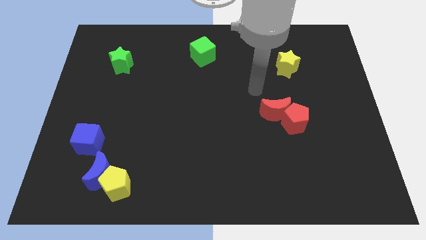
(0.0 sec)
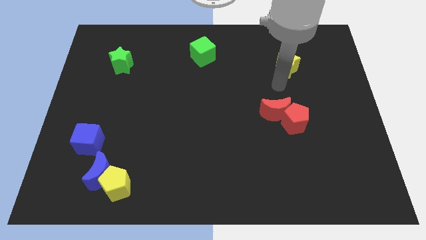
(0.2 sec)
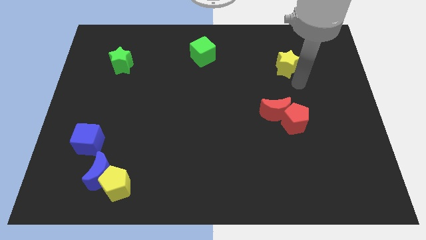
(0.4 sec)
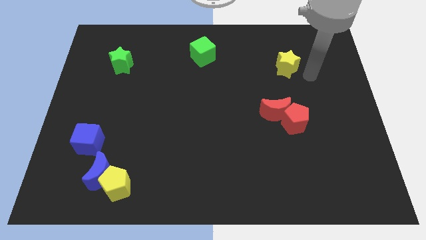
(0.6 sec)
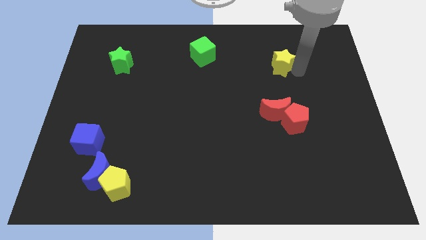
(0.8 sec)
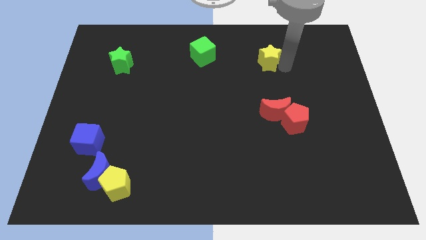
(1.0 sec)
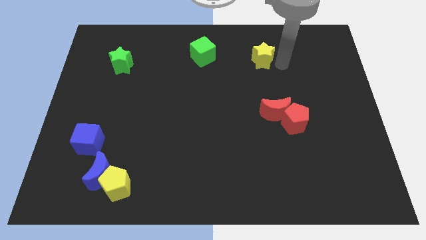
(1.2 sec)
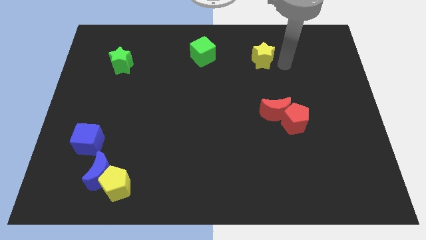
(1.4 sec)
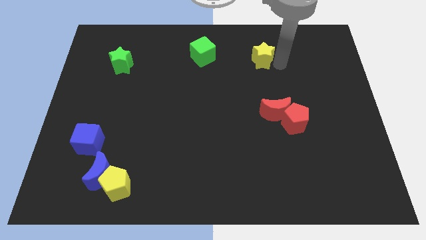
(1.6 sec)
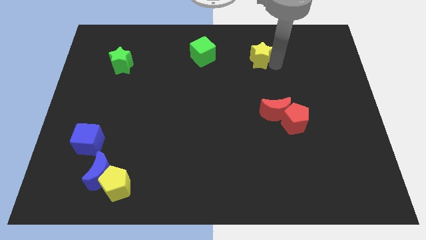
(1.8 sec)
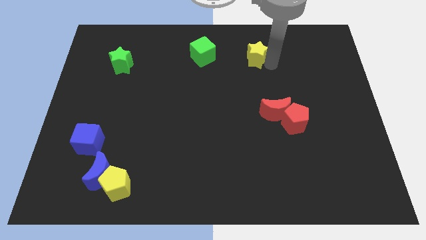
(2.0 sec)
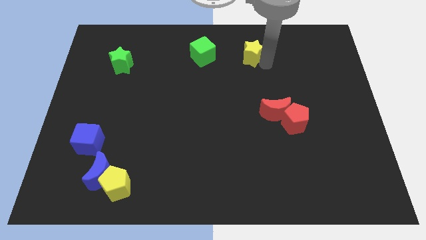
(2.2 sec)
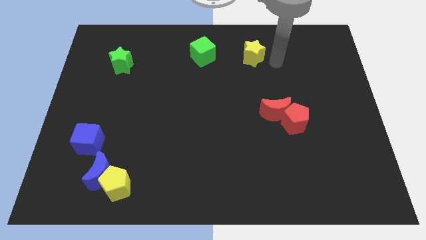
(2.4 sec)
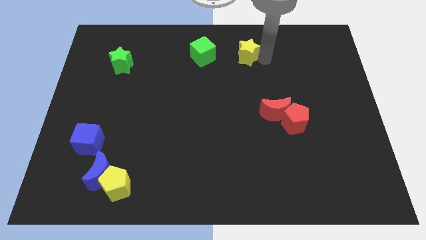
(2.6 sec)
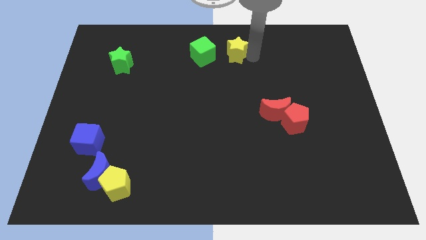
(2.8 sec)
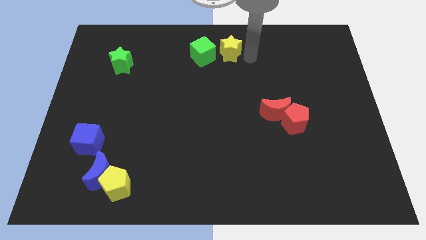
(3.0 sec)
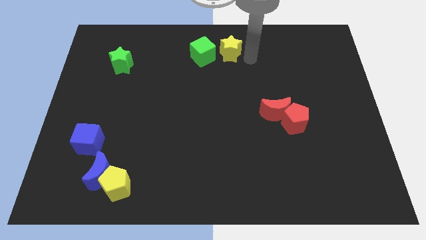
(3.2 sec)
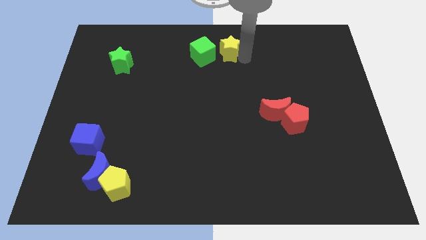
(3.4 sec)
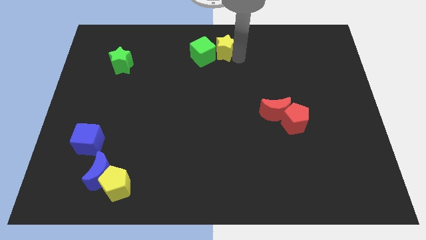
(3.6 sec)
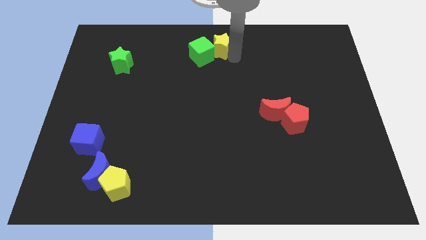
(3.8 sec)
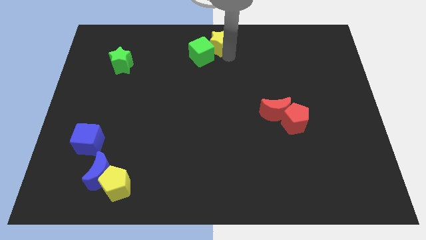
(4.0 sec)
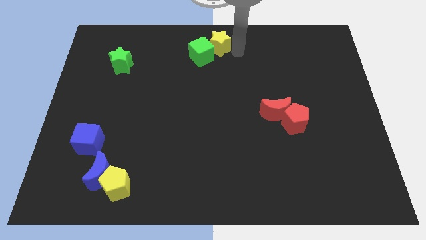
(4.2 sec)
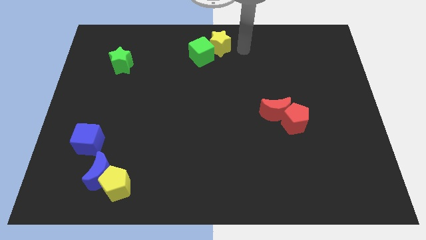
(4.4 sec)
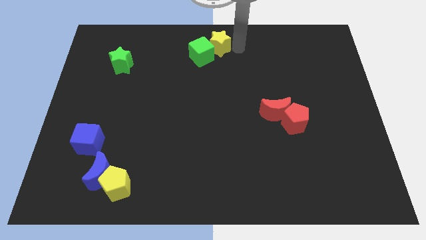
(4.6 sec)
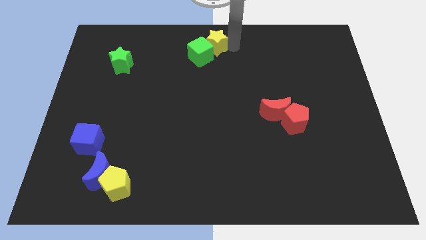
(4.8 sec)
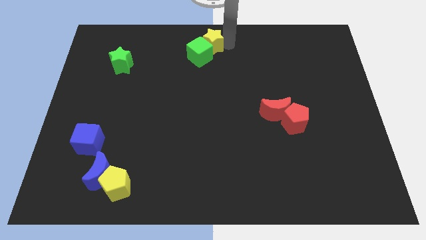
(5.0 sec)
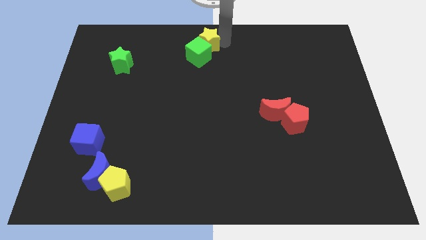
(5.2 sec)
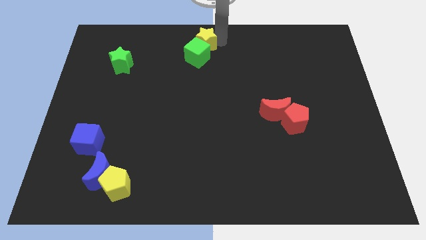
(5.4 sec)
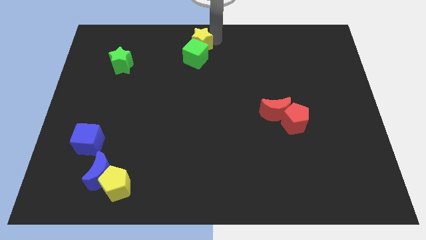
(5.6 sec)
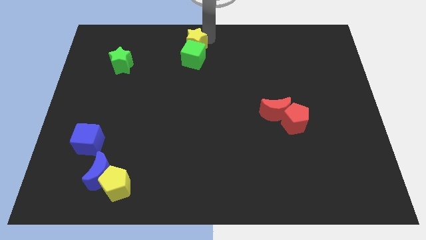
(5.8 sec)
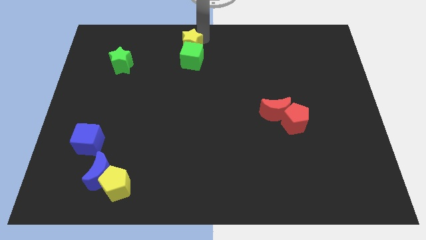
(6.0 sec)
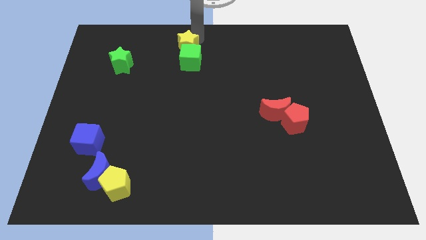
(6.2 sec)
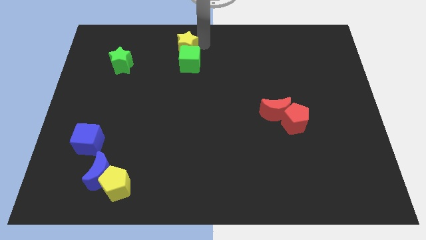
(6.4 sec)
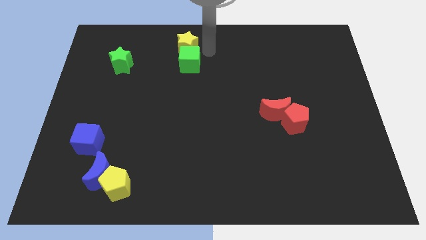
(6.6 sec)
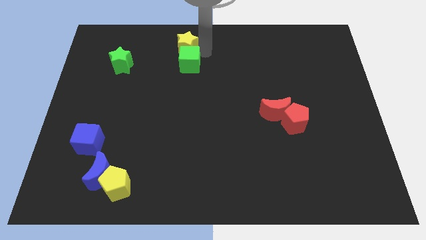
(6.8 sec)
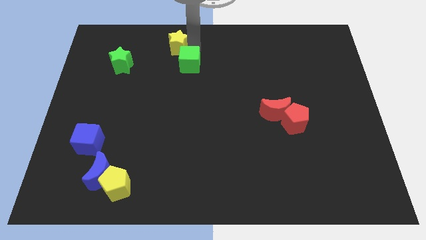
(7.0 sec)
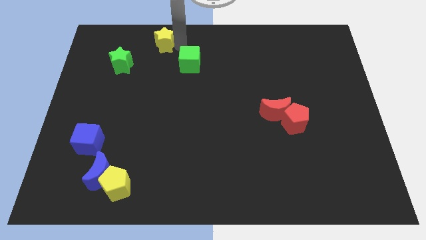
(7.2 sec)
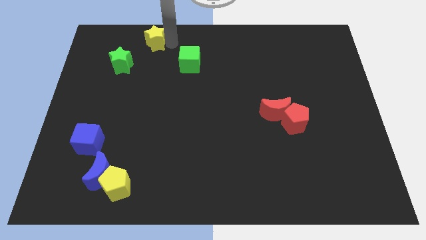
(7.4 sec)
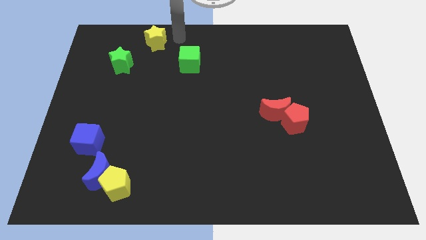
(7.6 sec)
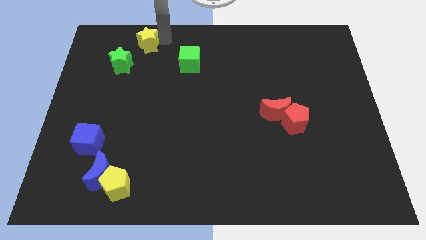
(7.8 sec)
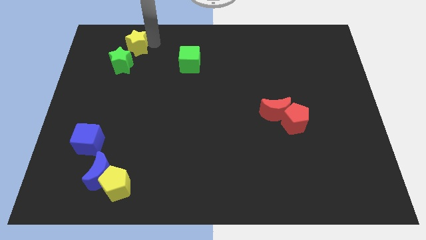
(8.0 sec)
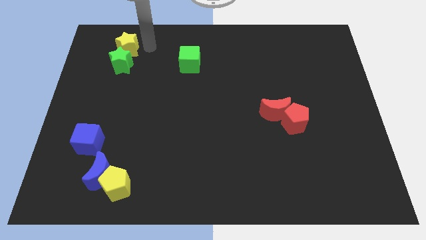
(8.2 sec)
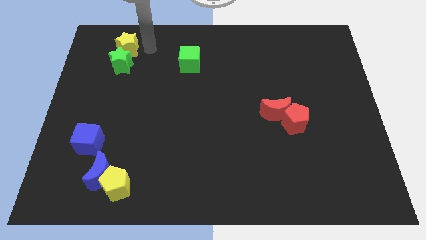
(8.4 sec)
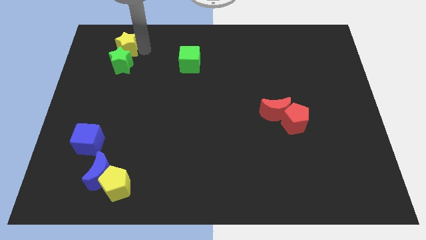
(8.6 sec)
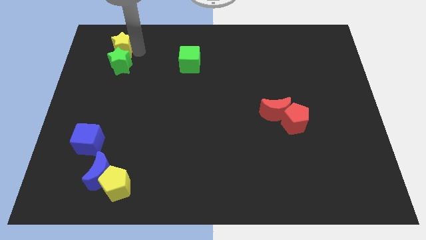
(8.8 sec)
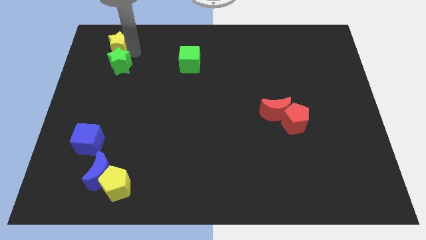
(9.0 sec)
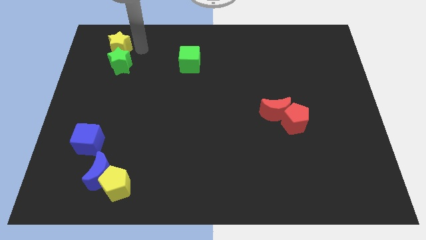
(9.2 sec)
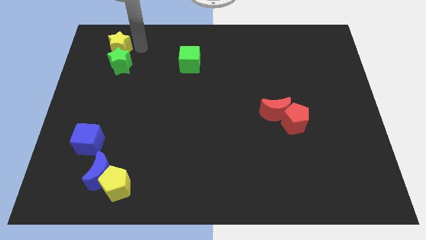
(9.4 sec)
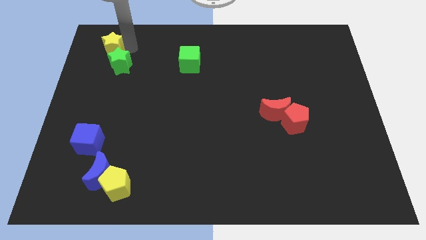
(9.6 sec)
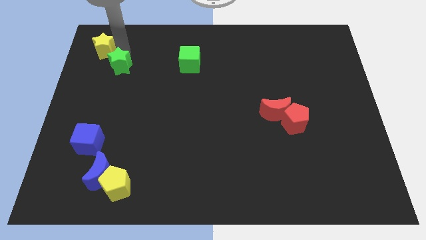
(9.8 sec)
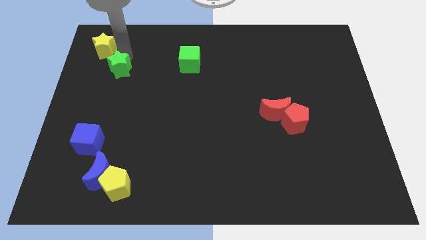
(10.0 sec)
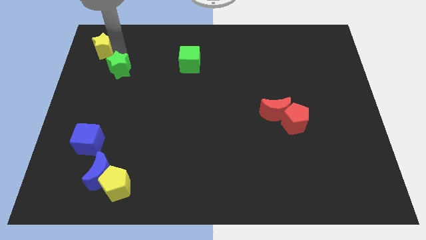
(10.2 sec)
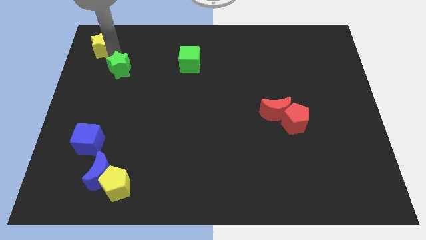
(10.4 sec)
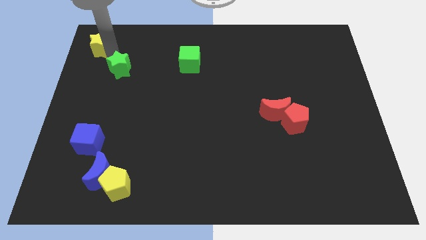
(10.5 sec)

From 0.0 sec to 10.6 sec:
put the yellow star to the upper left corner

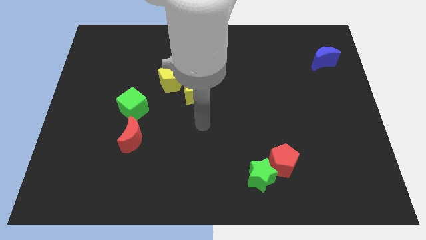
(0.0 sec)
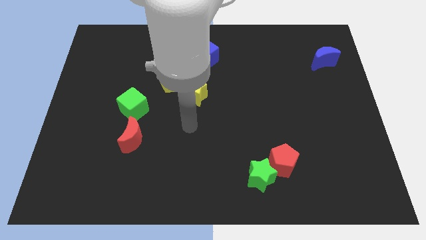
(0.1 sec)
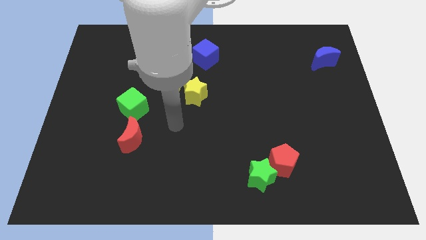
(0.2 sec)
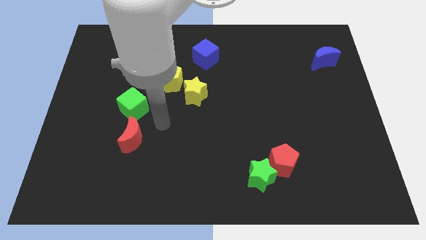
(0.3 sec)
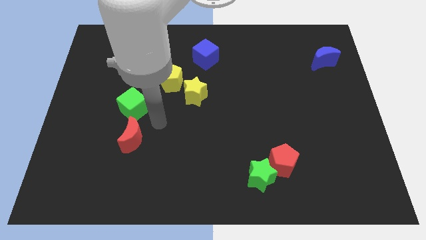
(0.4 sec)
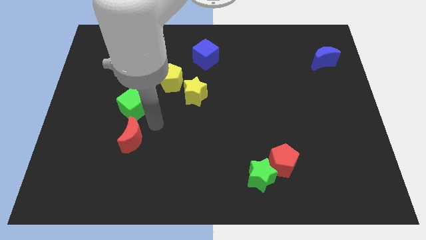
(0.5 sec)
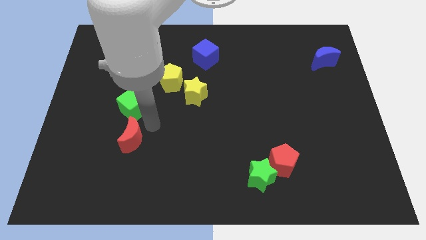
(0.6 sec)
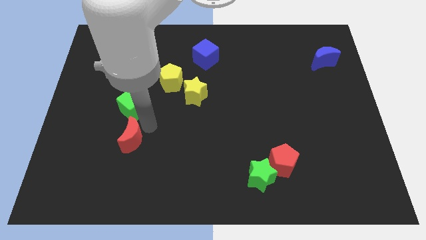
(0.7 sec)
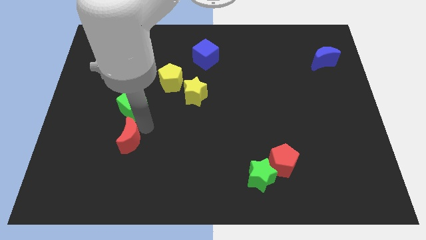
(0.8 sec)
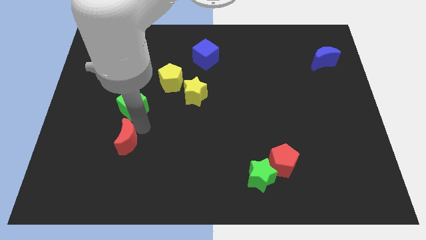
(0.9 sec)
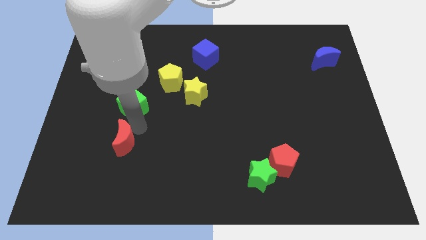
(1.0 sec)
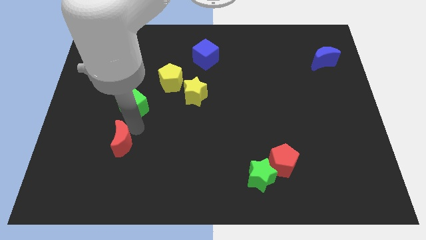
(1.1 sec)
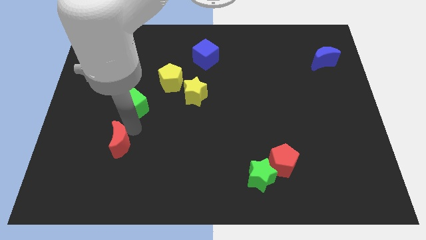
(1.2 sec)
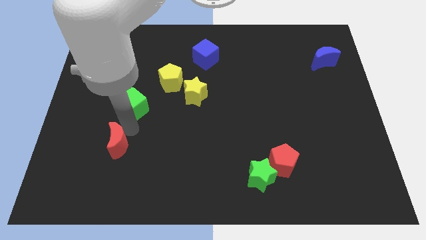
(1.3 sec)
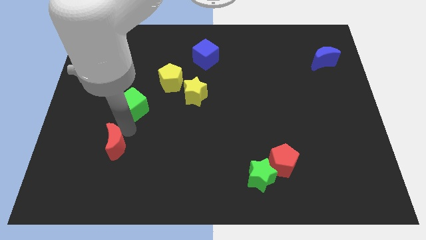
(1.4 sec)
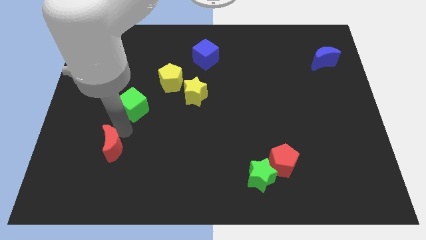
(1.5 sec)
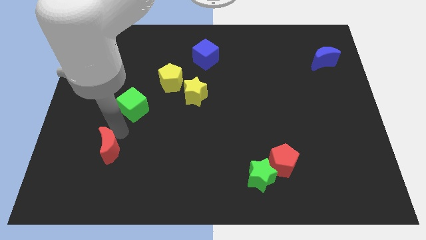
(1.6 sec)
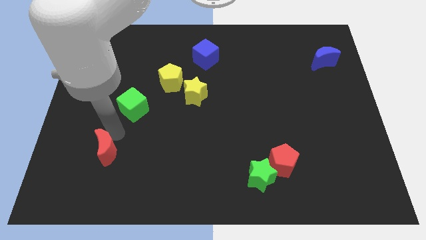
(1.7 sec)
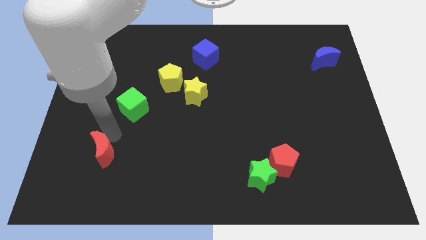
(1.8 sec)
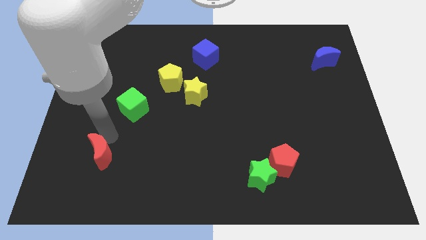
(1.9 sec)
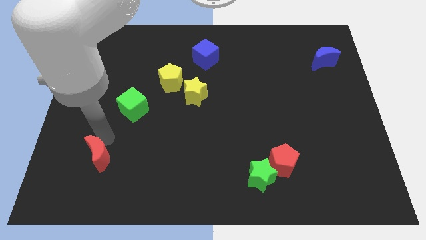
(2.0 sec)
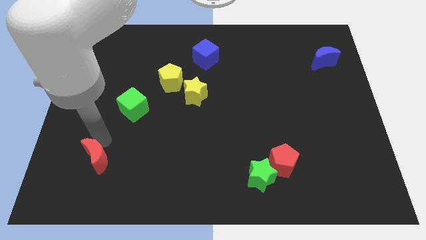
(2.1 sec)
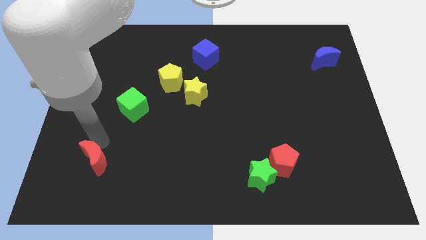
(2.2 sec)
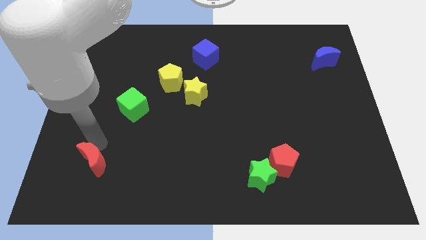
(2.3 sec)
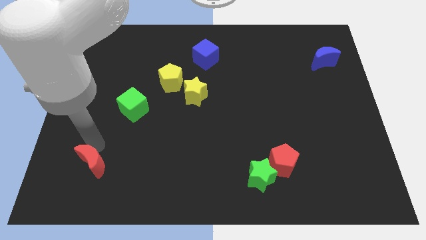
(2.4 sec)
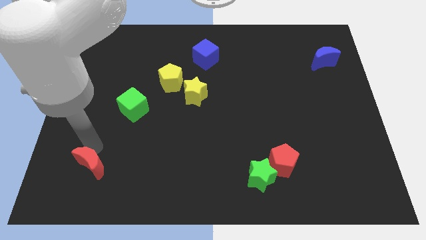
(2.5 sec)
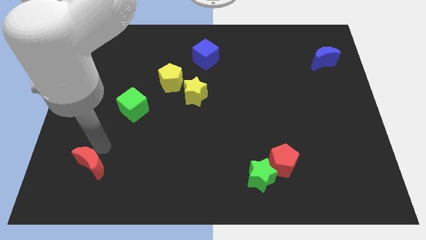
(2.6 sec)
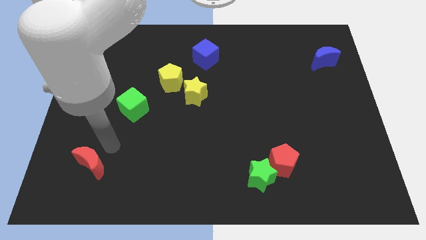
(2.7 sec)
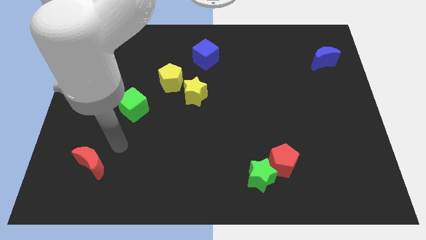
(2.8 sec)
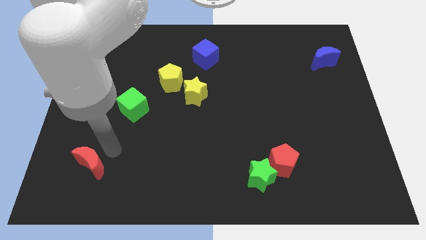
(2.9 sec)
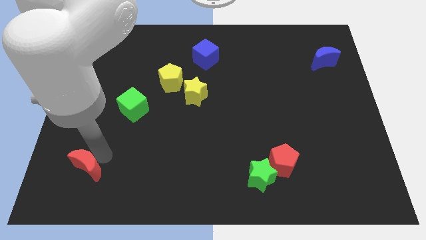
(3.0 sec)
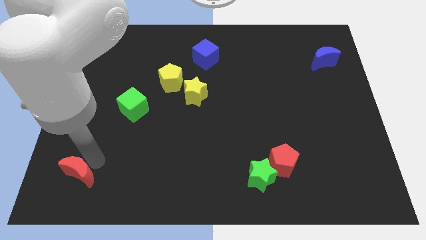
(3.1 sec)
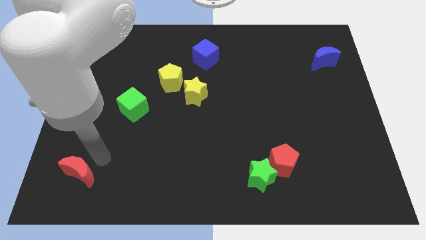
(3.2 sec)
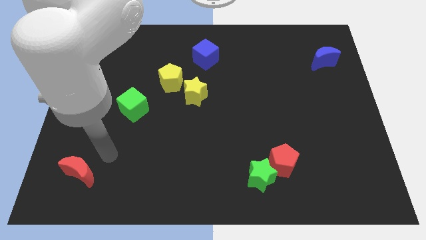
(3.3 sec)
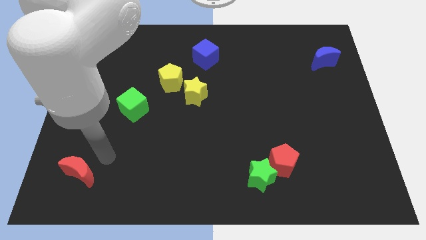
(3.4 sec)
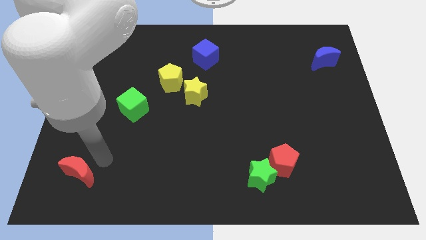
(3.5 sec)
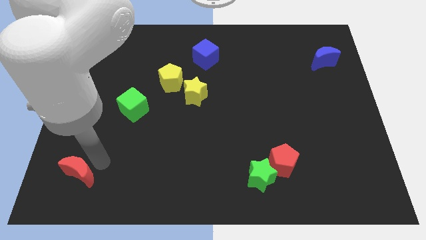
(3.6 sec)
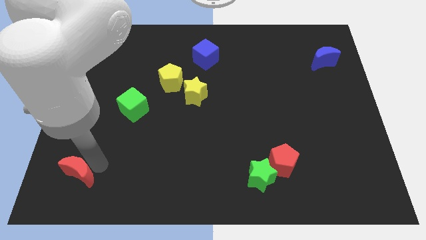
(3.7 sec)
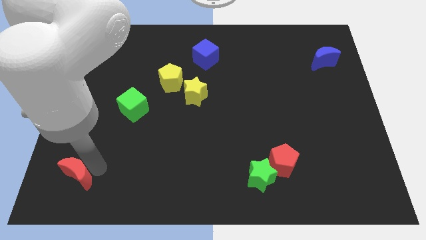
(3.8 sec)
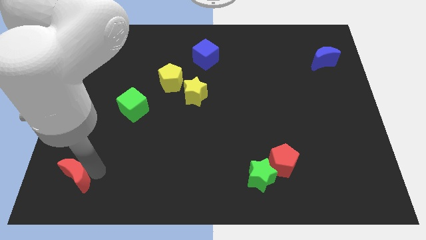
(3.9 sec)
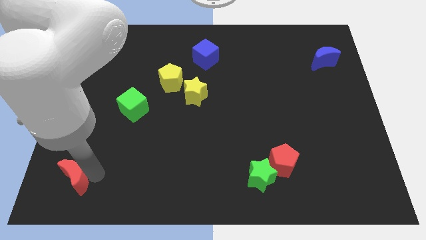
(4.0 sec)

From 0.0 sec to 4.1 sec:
move the red moon to the bottom left of the board
